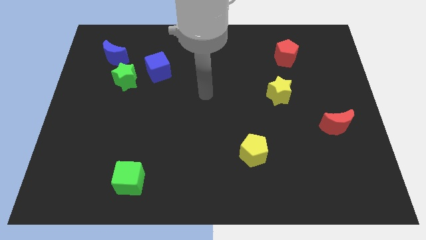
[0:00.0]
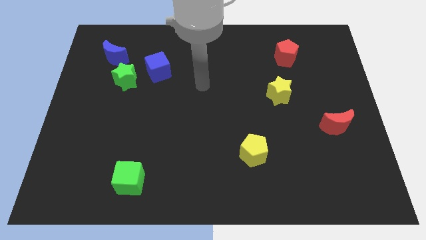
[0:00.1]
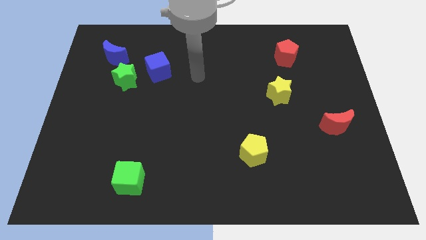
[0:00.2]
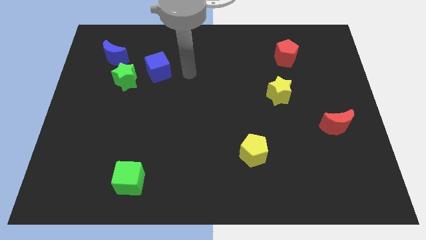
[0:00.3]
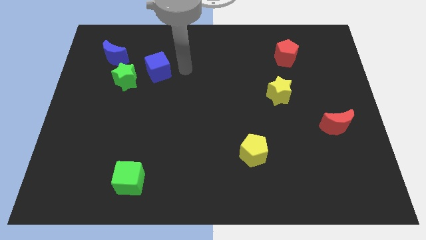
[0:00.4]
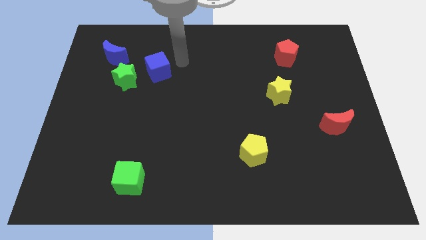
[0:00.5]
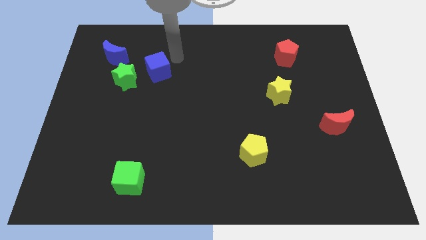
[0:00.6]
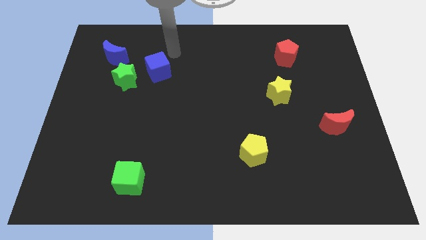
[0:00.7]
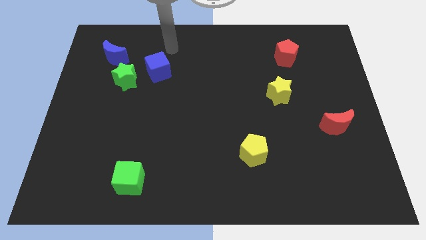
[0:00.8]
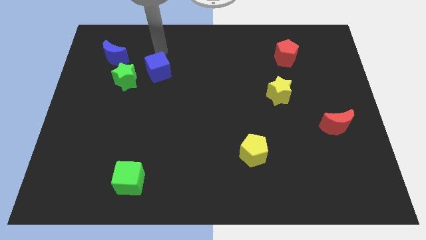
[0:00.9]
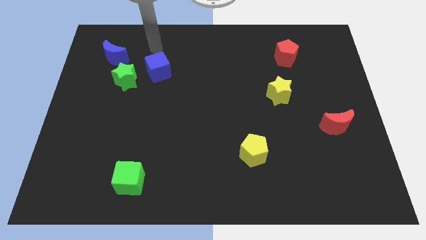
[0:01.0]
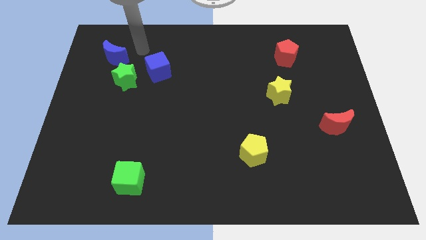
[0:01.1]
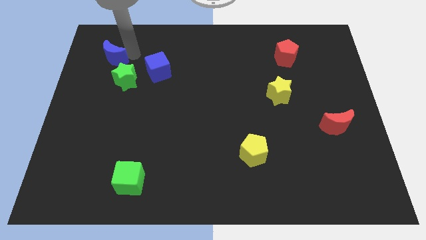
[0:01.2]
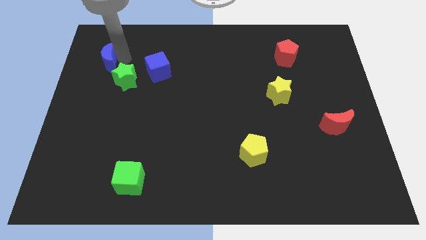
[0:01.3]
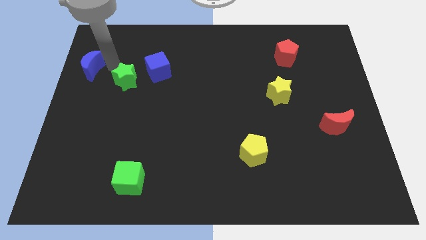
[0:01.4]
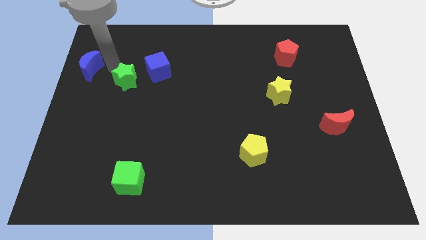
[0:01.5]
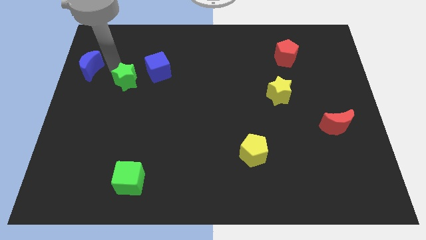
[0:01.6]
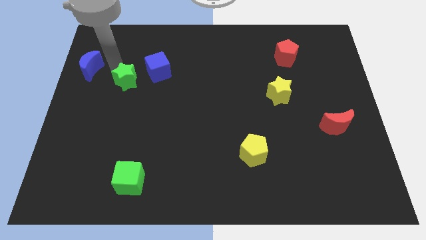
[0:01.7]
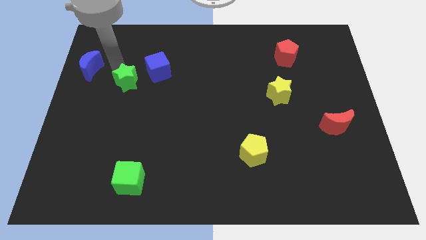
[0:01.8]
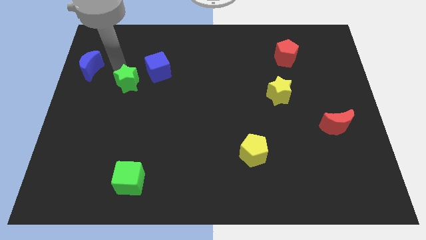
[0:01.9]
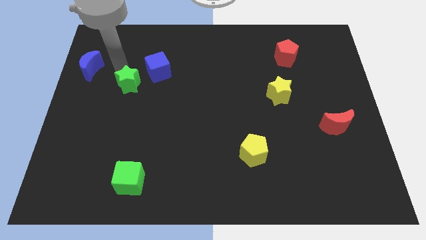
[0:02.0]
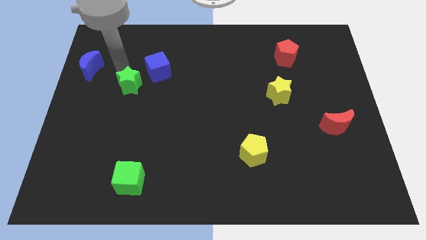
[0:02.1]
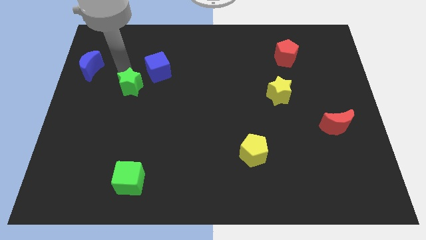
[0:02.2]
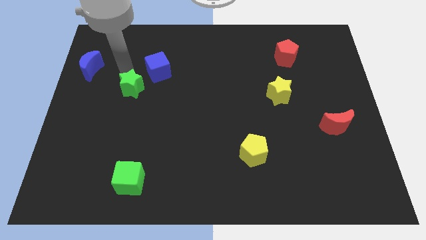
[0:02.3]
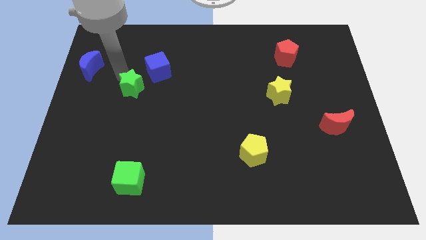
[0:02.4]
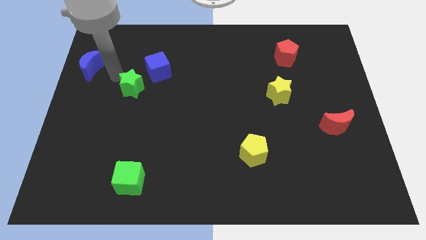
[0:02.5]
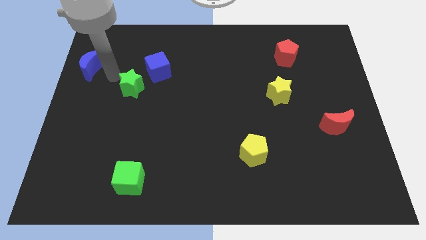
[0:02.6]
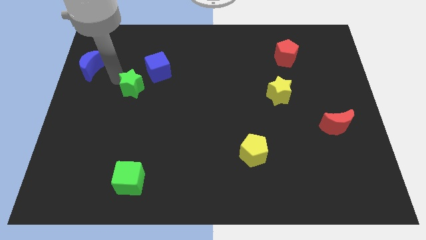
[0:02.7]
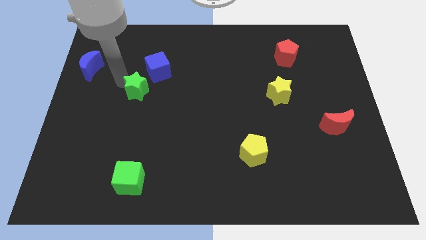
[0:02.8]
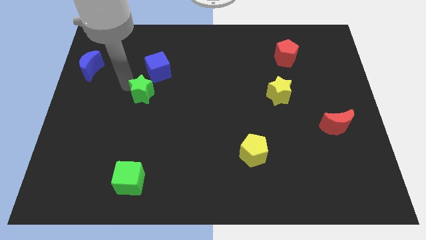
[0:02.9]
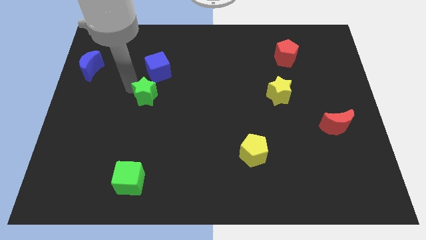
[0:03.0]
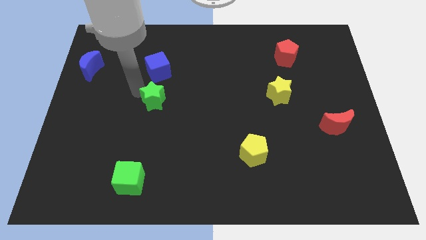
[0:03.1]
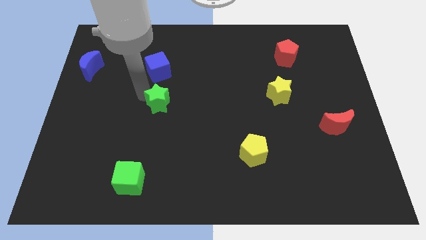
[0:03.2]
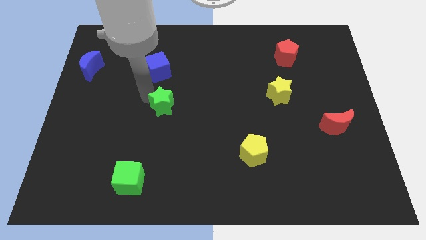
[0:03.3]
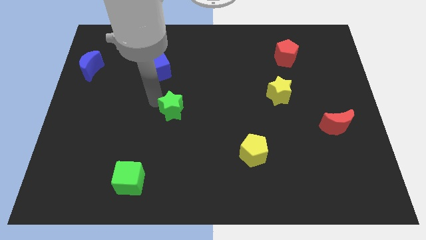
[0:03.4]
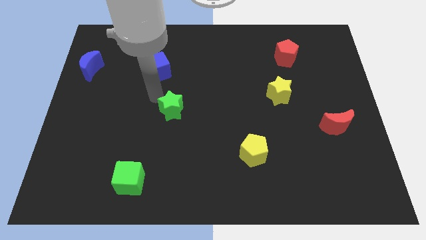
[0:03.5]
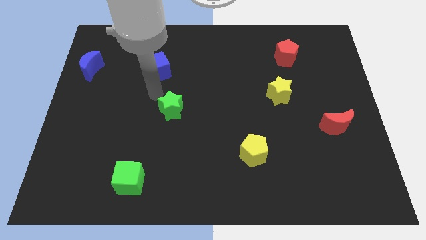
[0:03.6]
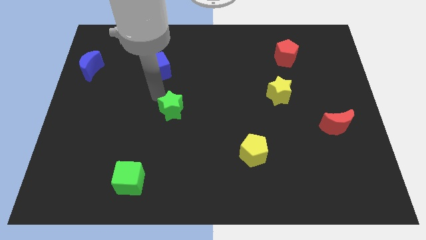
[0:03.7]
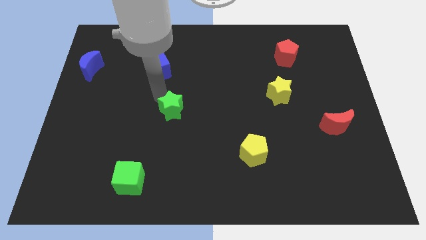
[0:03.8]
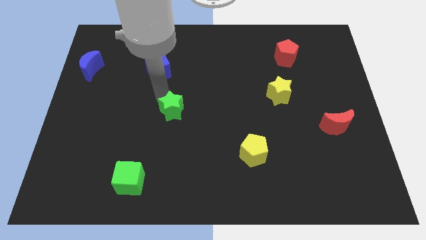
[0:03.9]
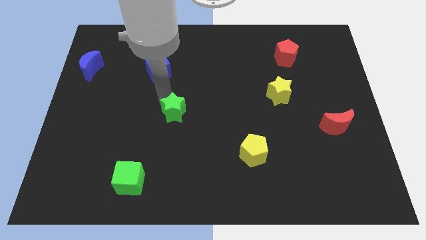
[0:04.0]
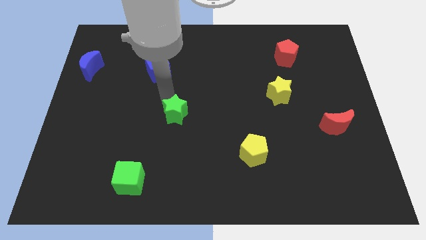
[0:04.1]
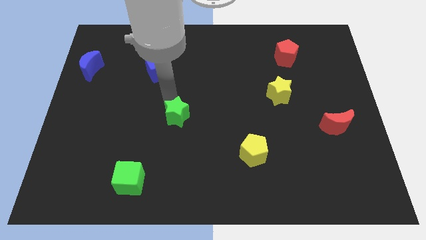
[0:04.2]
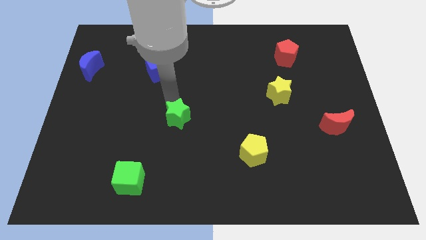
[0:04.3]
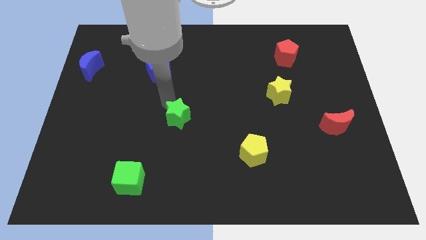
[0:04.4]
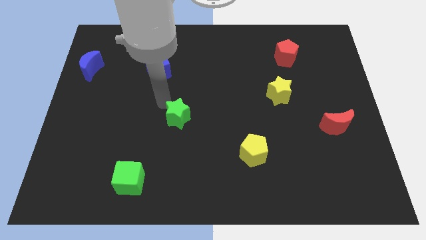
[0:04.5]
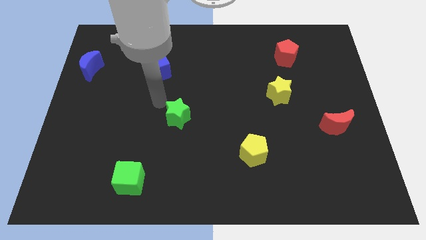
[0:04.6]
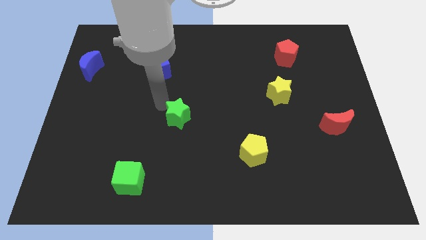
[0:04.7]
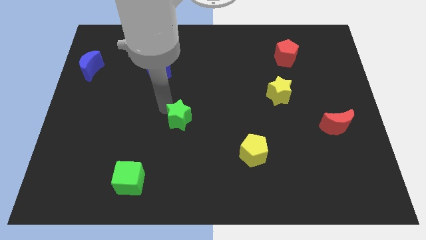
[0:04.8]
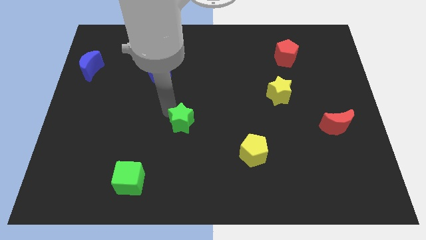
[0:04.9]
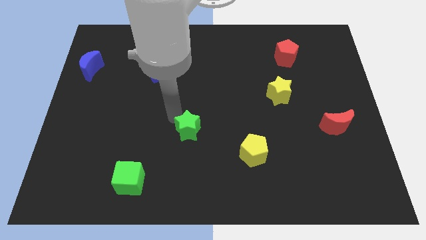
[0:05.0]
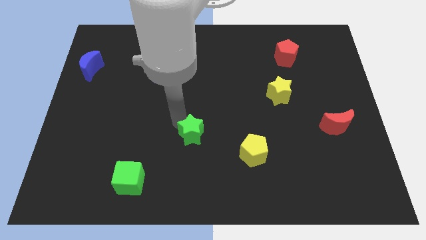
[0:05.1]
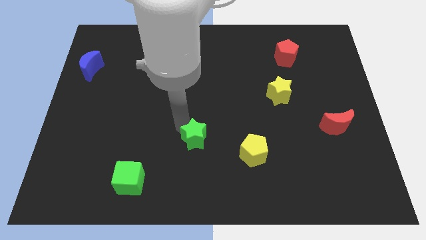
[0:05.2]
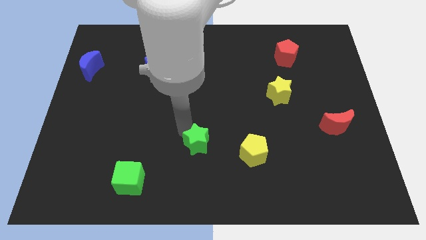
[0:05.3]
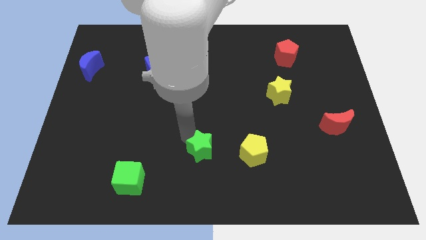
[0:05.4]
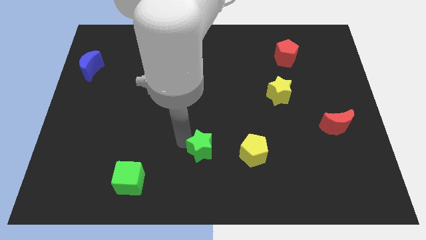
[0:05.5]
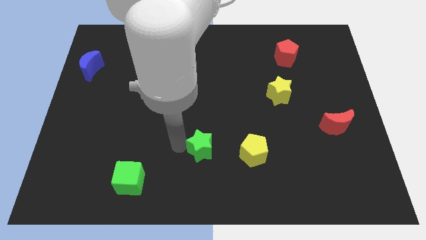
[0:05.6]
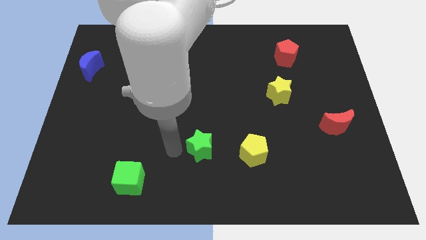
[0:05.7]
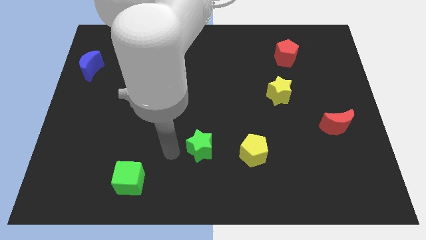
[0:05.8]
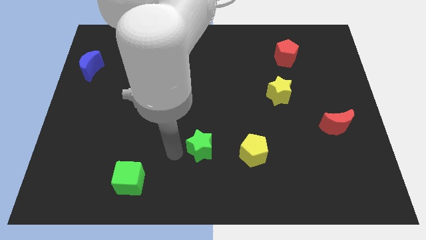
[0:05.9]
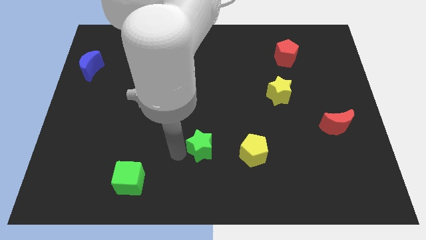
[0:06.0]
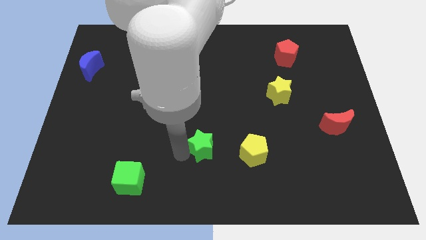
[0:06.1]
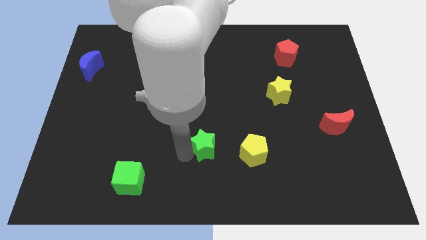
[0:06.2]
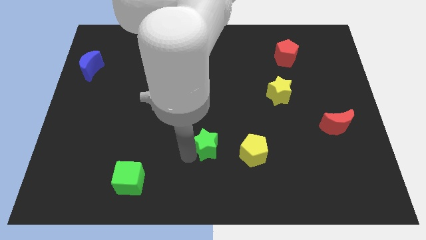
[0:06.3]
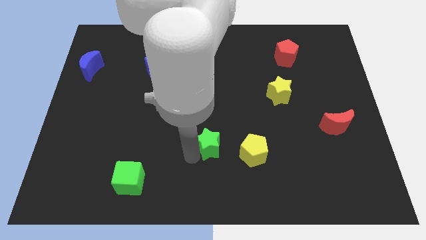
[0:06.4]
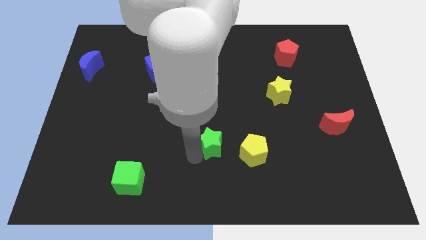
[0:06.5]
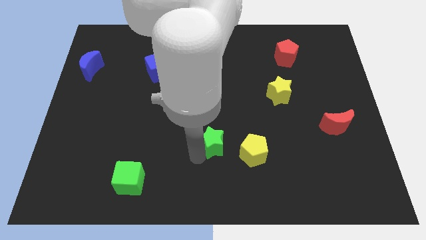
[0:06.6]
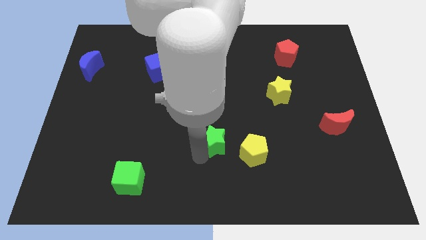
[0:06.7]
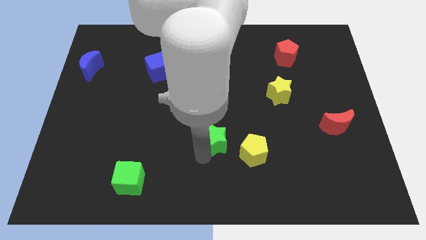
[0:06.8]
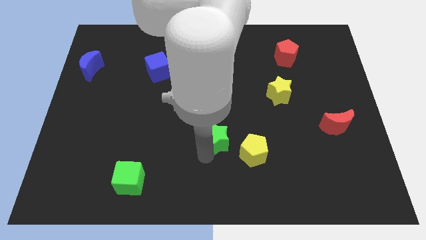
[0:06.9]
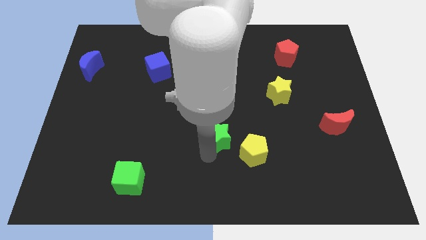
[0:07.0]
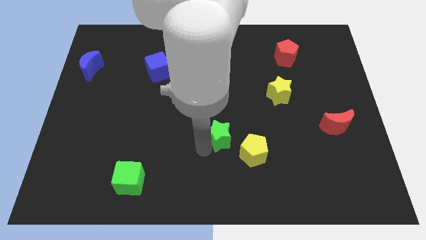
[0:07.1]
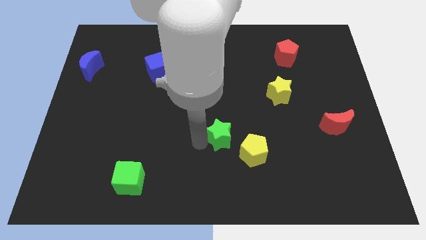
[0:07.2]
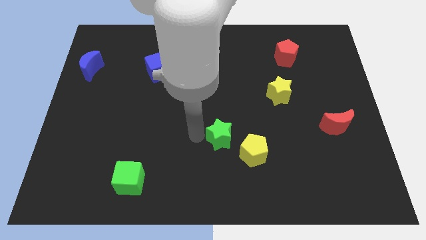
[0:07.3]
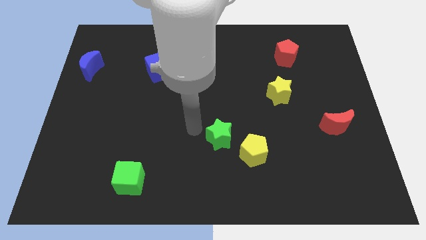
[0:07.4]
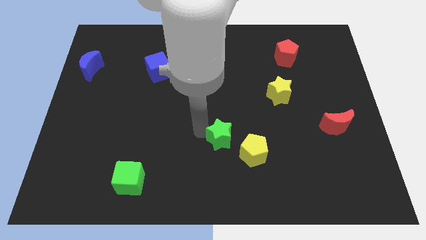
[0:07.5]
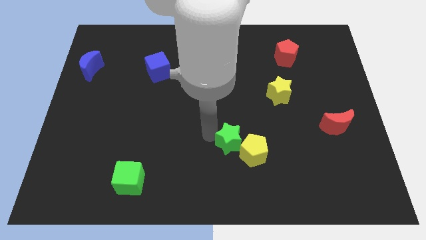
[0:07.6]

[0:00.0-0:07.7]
move the green star next to the yellow pentagon
